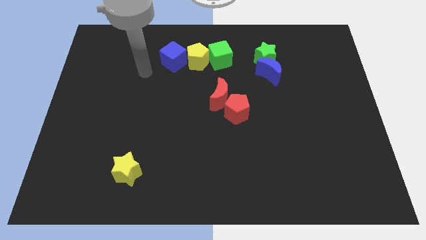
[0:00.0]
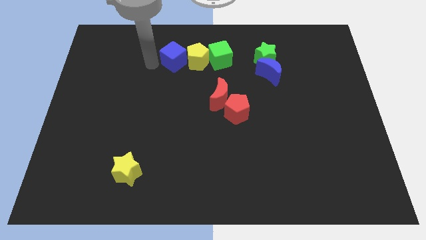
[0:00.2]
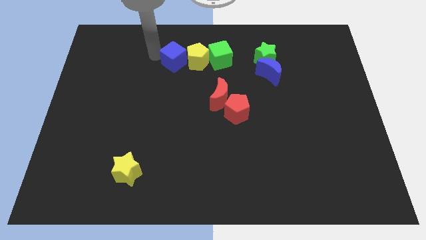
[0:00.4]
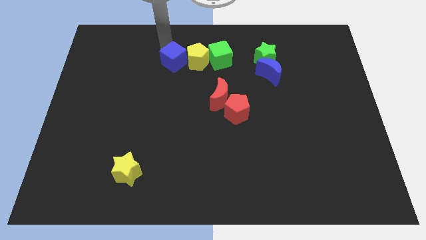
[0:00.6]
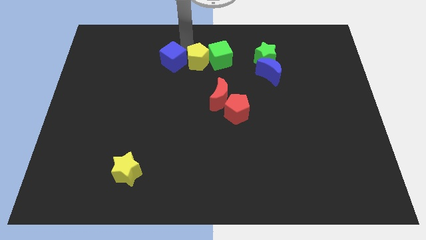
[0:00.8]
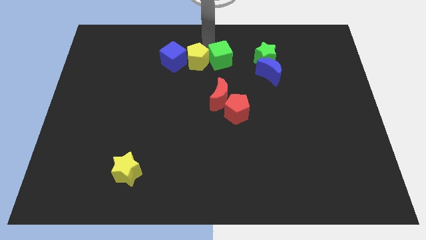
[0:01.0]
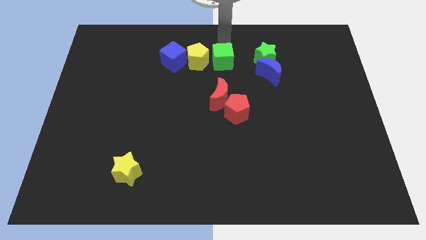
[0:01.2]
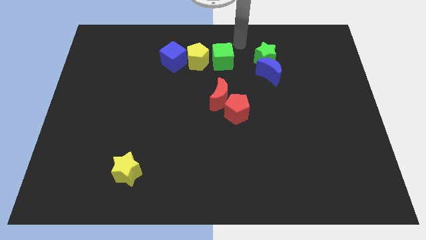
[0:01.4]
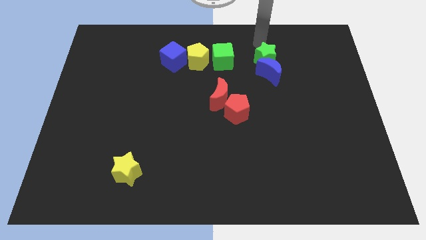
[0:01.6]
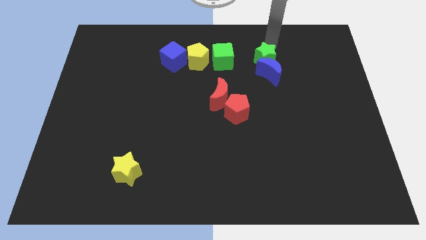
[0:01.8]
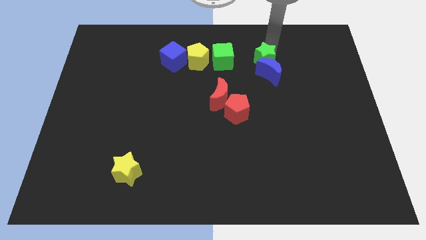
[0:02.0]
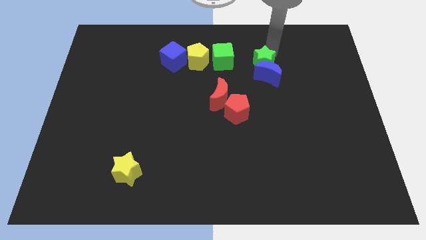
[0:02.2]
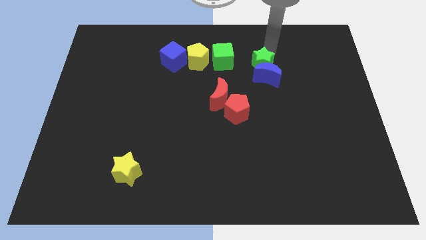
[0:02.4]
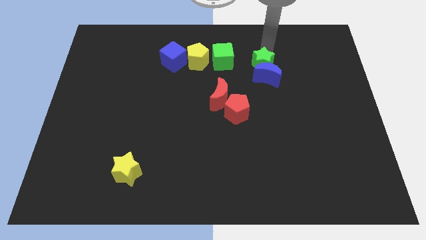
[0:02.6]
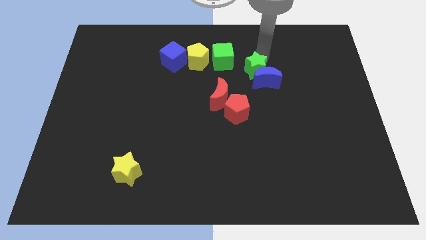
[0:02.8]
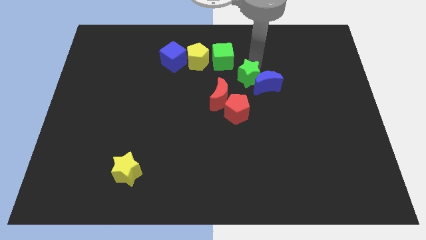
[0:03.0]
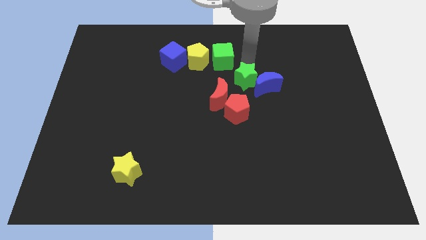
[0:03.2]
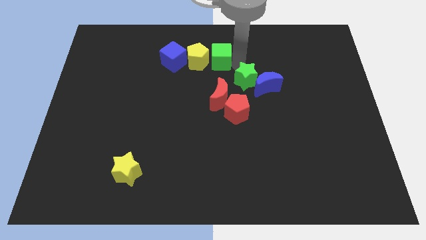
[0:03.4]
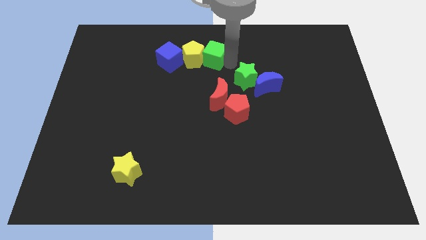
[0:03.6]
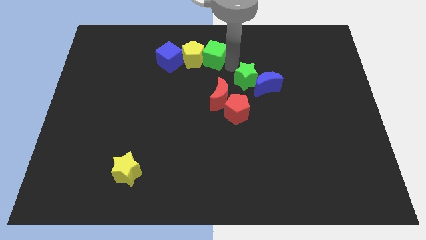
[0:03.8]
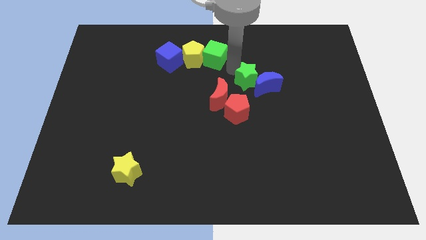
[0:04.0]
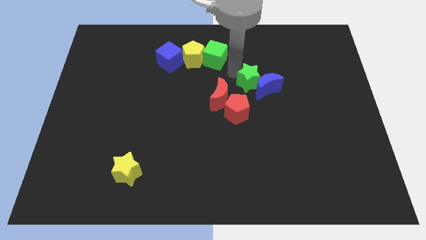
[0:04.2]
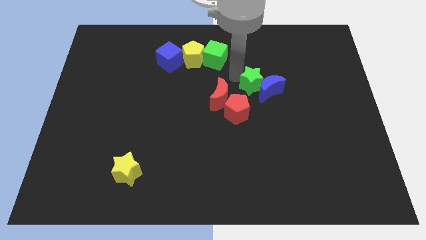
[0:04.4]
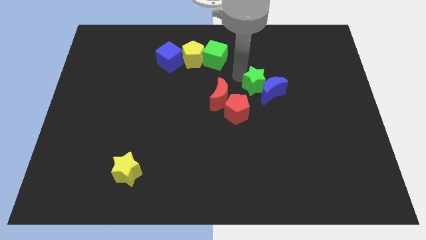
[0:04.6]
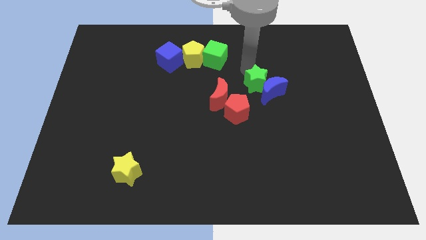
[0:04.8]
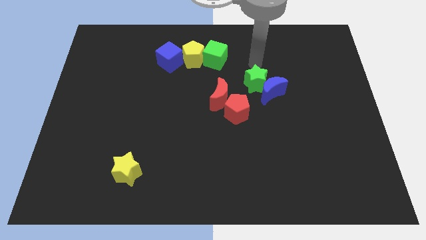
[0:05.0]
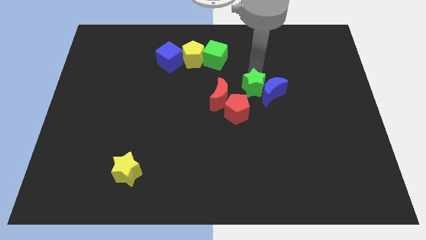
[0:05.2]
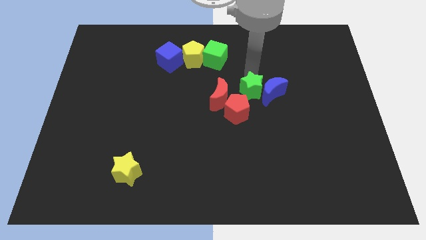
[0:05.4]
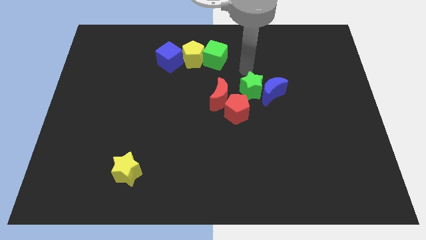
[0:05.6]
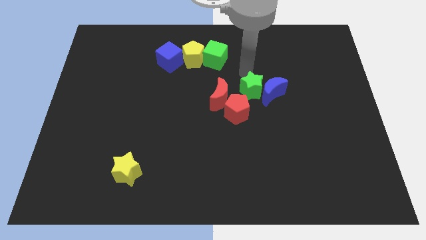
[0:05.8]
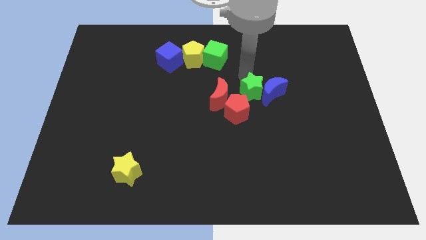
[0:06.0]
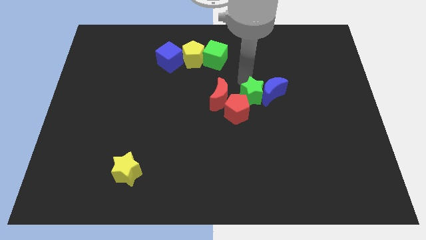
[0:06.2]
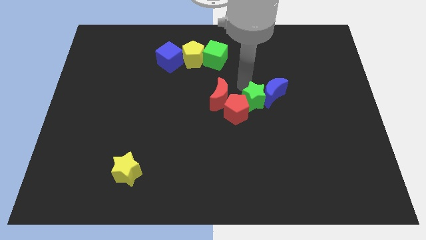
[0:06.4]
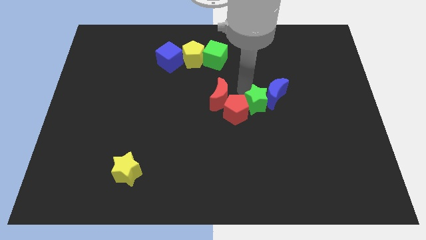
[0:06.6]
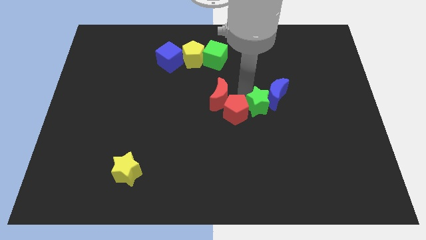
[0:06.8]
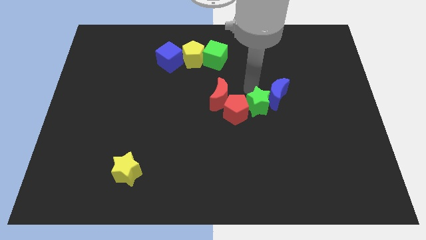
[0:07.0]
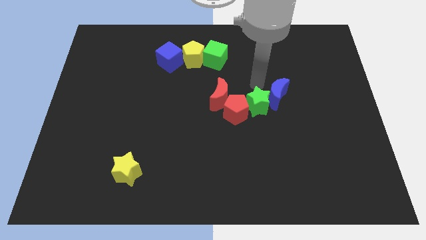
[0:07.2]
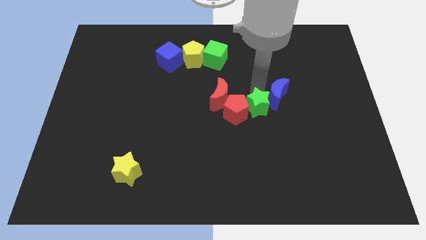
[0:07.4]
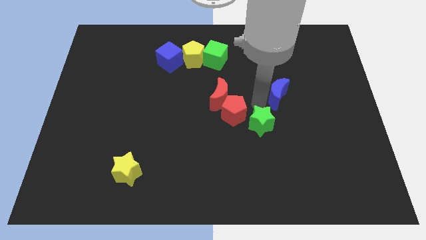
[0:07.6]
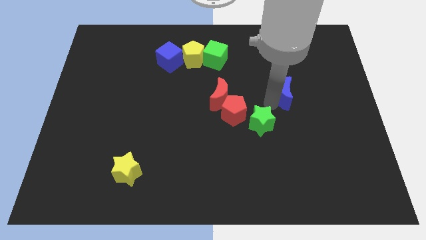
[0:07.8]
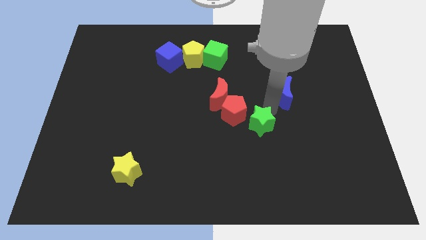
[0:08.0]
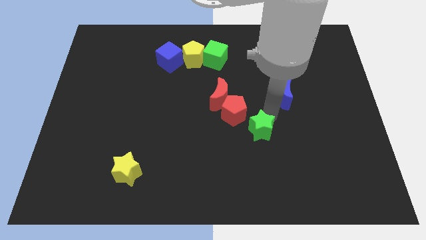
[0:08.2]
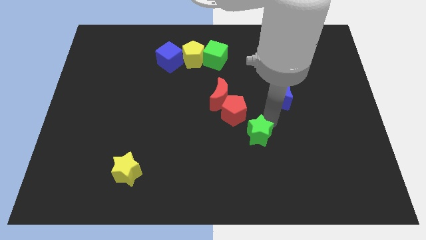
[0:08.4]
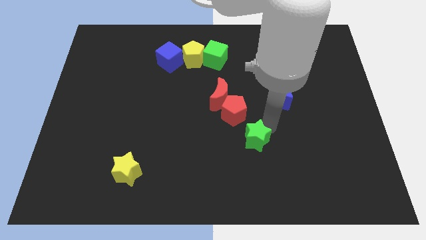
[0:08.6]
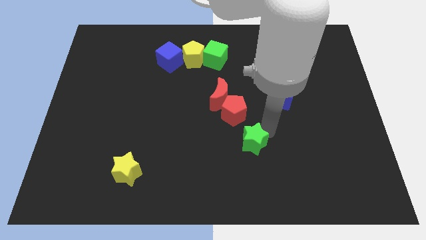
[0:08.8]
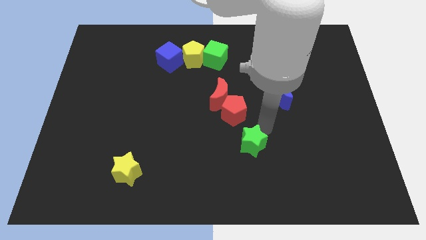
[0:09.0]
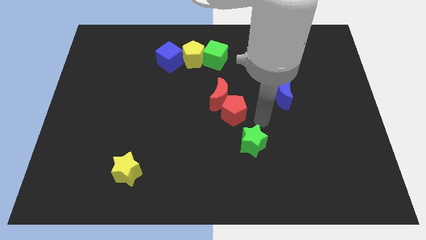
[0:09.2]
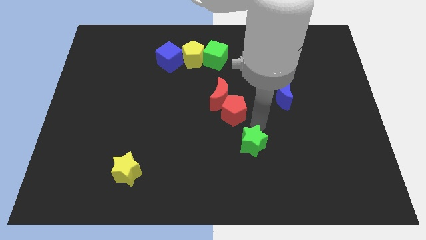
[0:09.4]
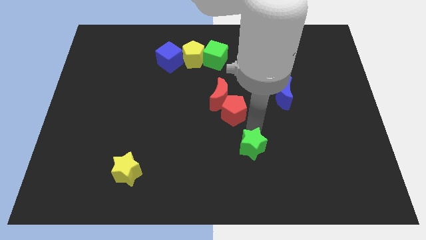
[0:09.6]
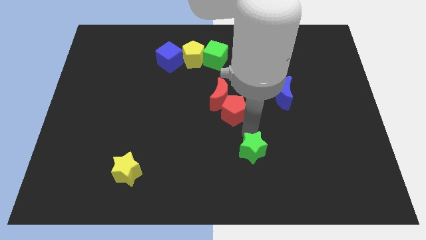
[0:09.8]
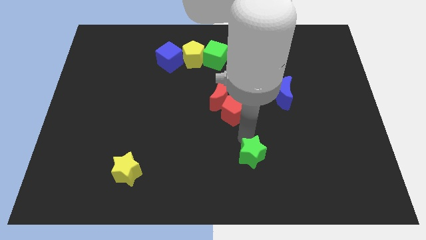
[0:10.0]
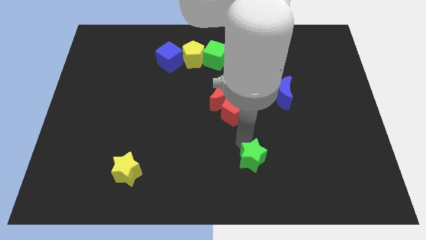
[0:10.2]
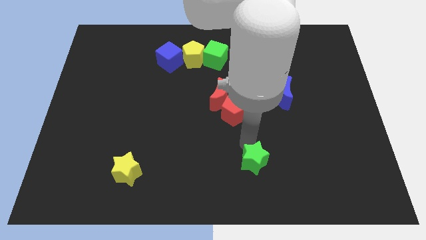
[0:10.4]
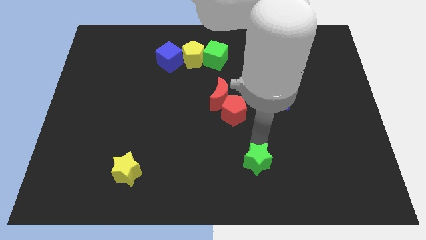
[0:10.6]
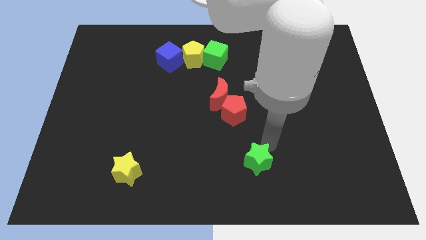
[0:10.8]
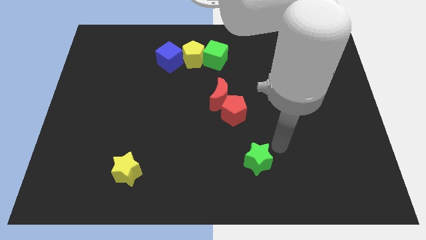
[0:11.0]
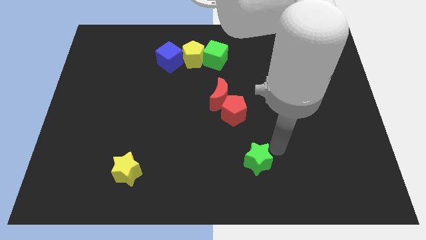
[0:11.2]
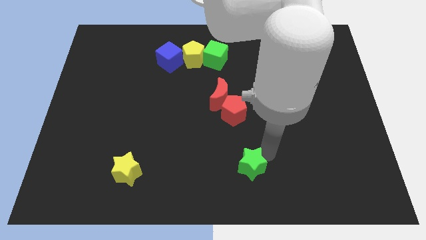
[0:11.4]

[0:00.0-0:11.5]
slide the green star to the bottom side

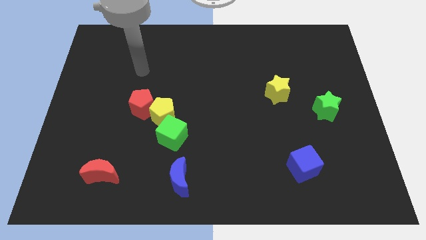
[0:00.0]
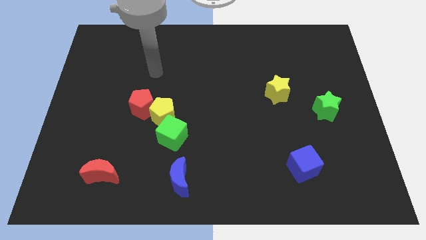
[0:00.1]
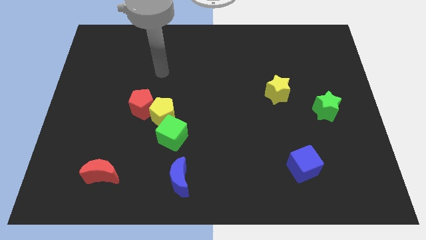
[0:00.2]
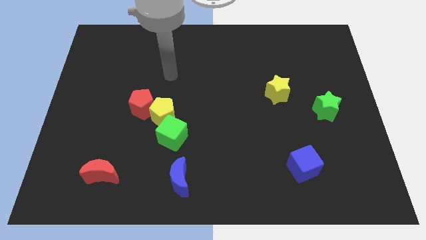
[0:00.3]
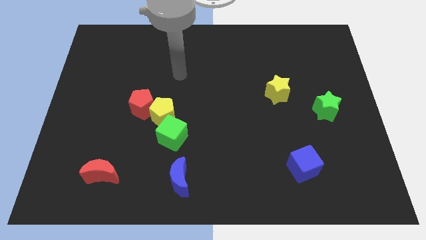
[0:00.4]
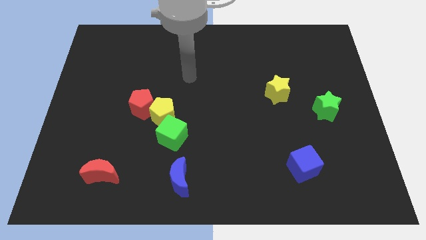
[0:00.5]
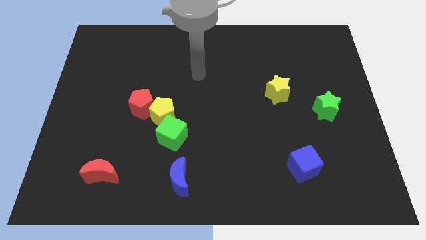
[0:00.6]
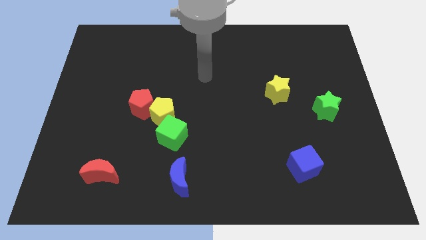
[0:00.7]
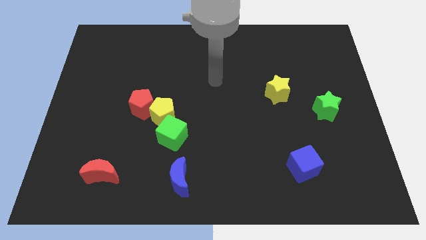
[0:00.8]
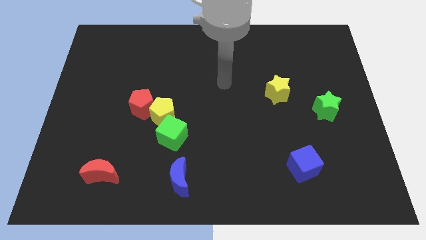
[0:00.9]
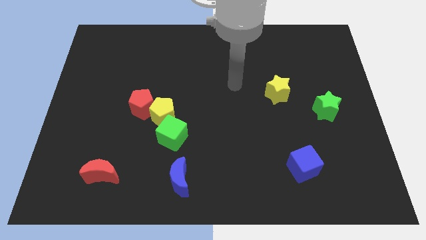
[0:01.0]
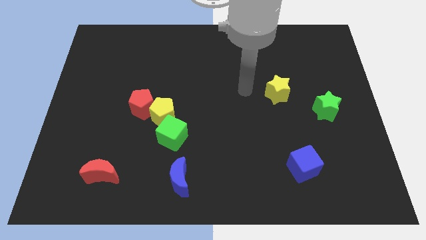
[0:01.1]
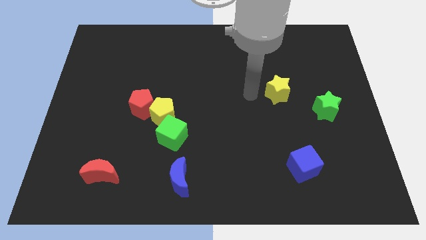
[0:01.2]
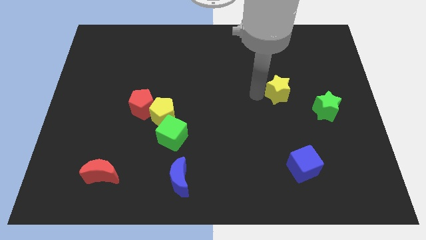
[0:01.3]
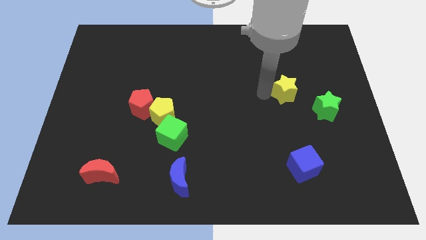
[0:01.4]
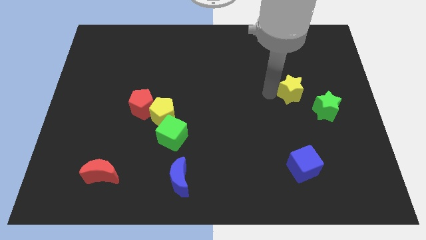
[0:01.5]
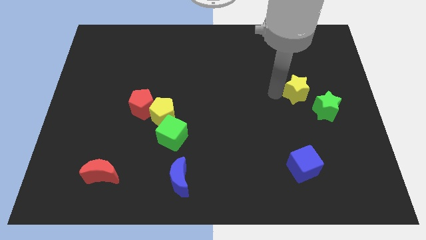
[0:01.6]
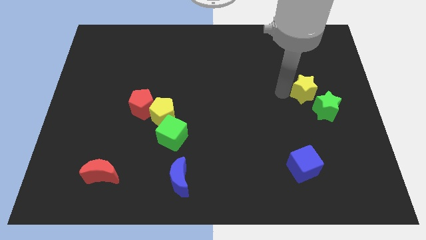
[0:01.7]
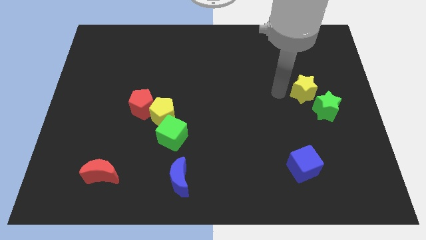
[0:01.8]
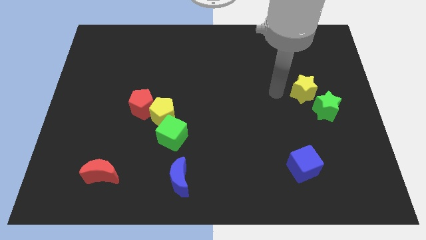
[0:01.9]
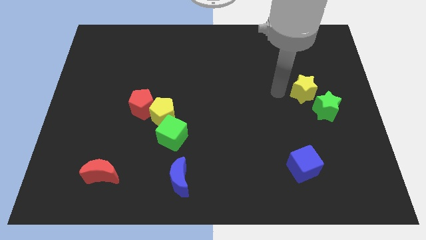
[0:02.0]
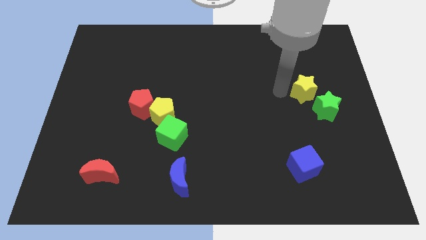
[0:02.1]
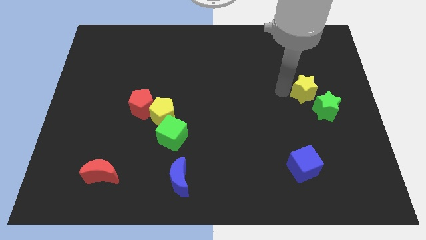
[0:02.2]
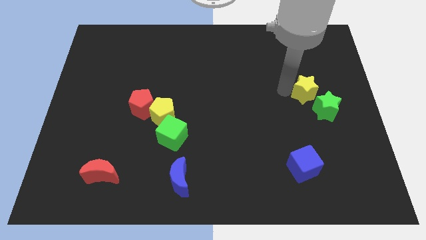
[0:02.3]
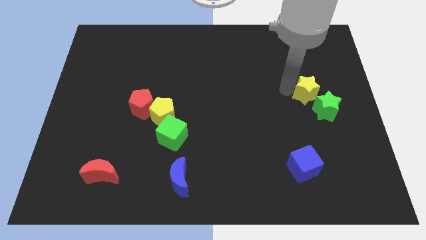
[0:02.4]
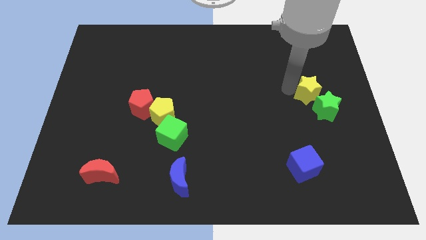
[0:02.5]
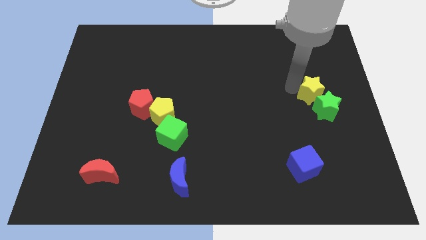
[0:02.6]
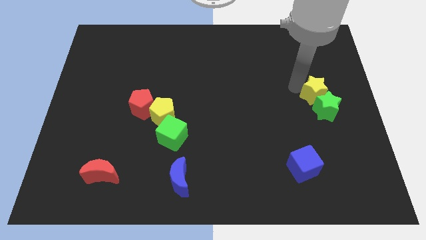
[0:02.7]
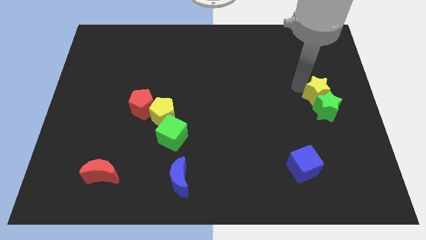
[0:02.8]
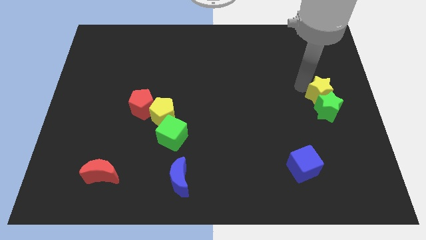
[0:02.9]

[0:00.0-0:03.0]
move the yellow star to the right side of the board
